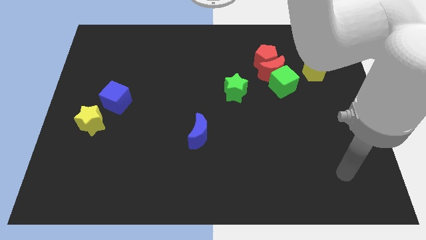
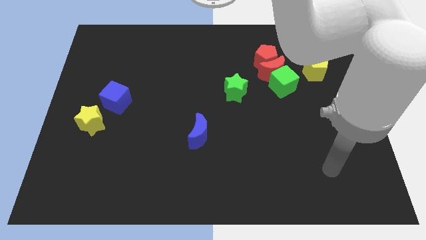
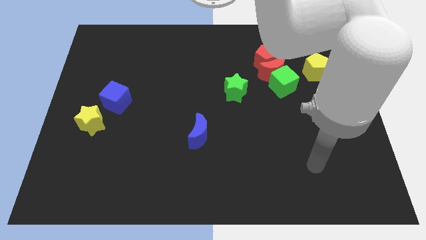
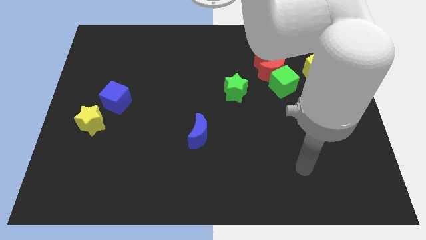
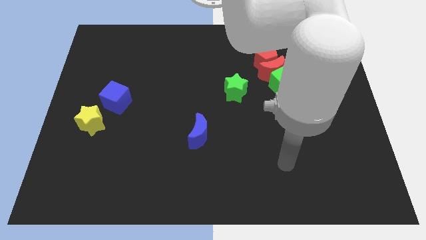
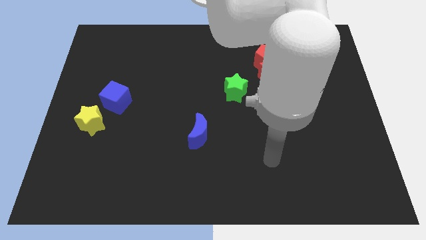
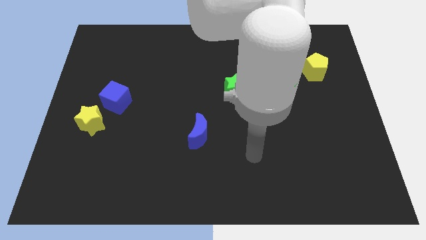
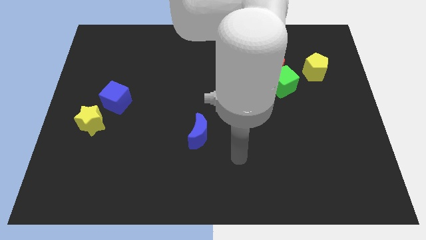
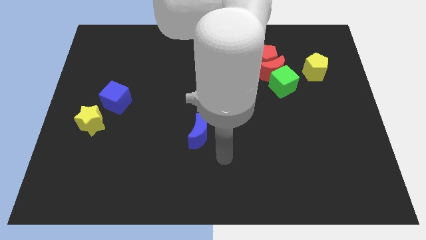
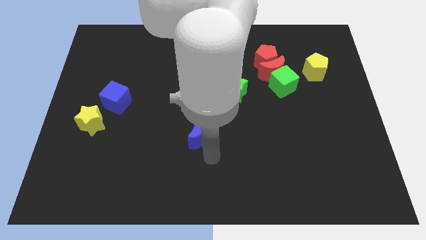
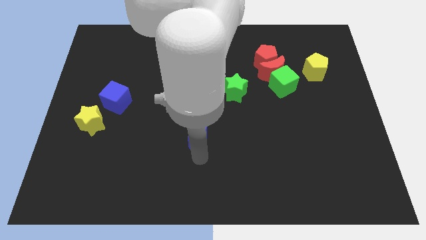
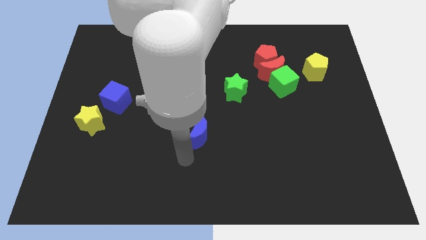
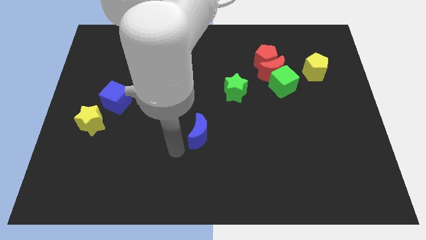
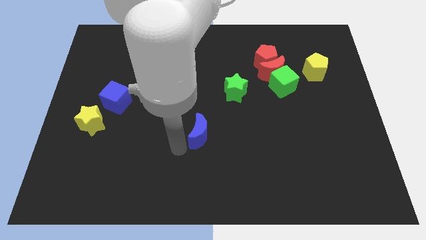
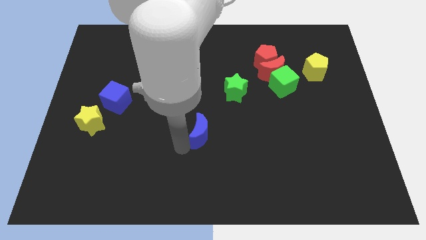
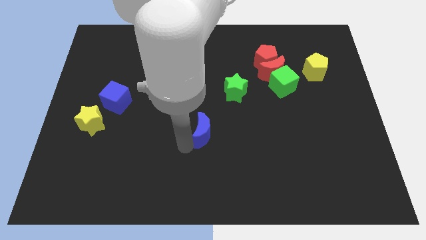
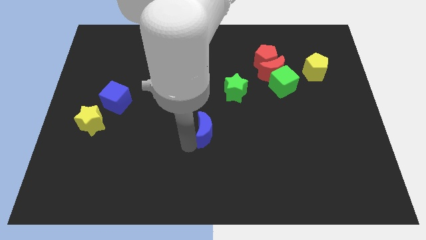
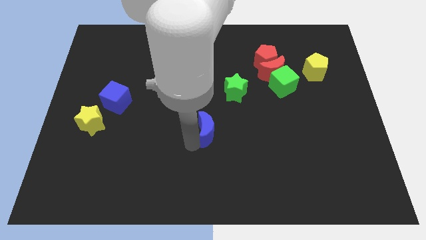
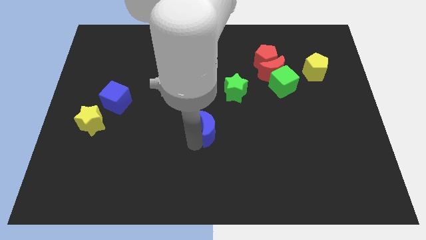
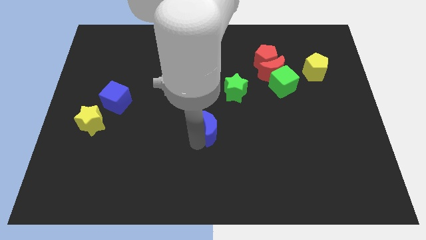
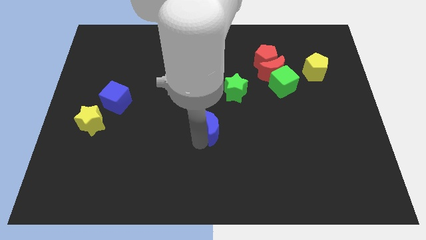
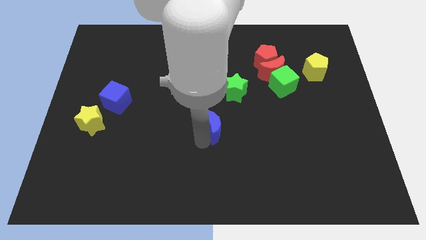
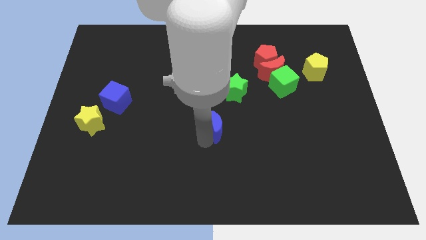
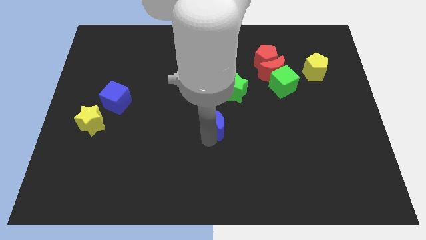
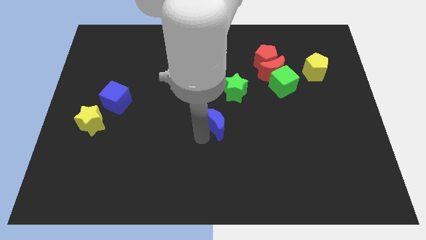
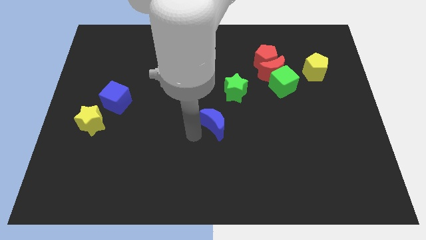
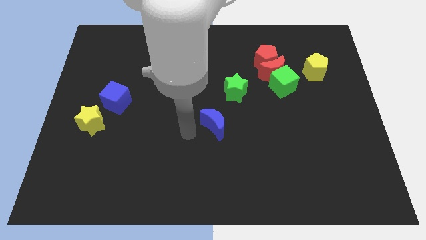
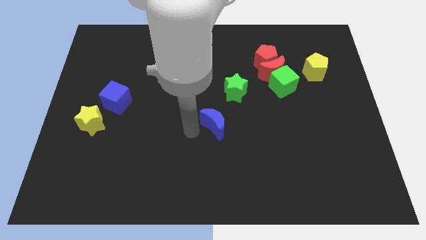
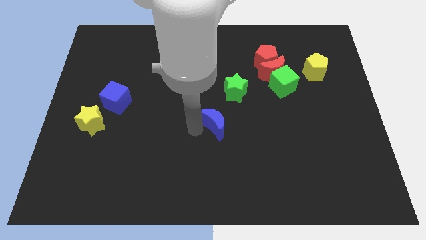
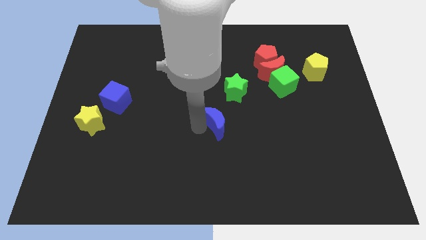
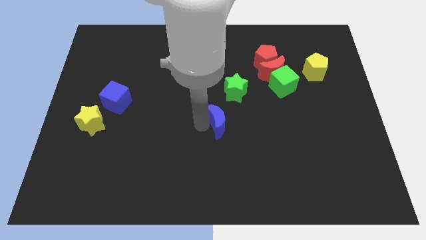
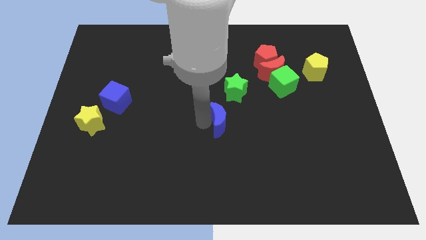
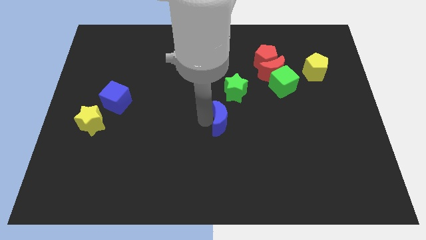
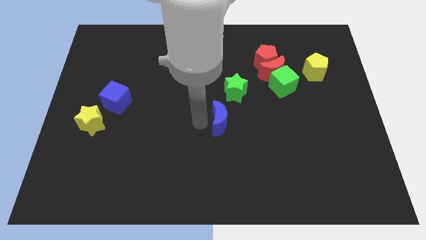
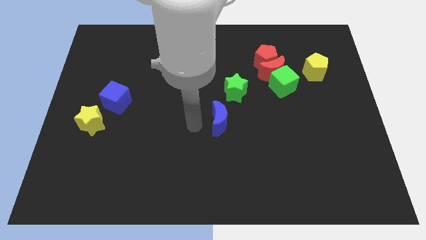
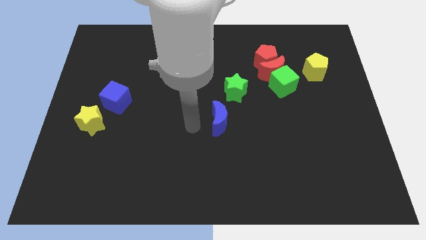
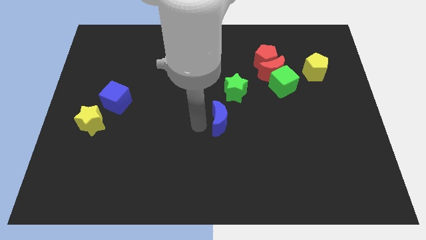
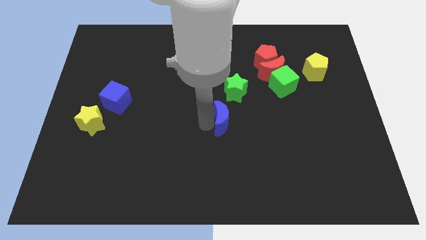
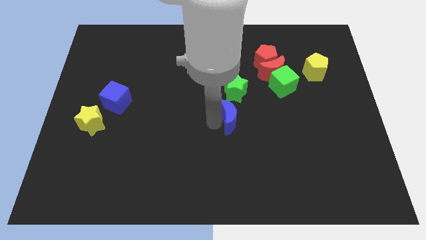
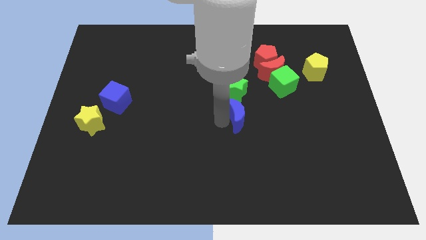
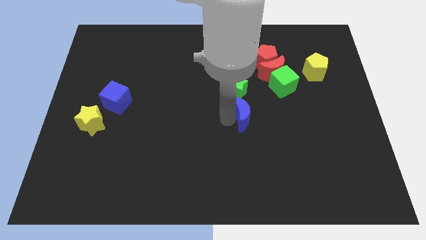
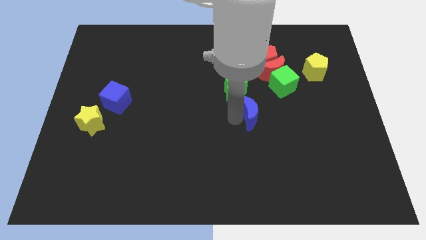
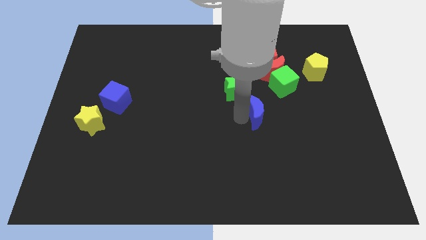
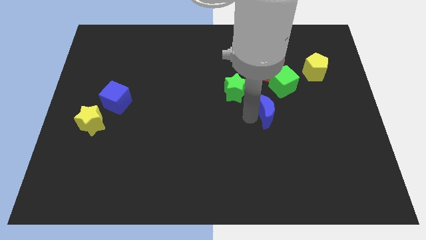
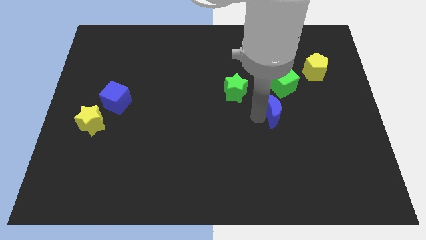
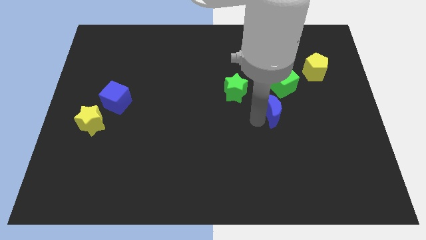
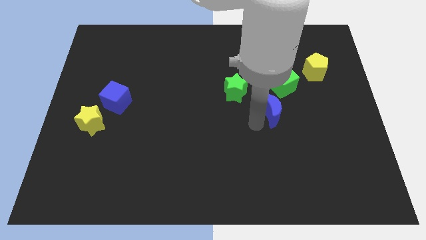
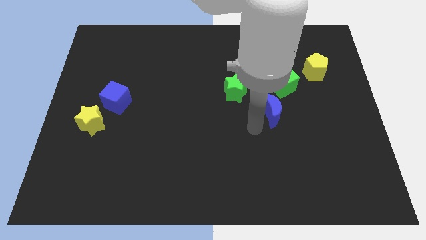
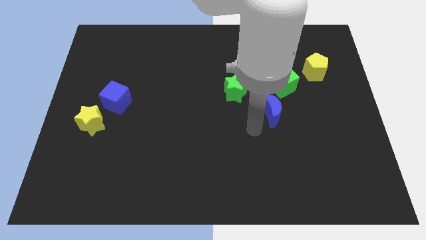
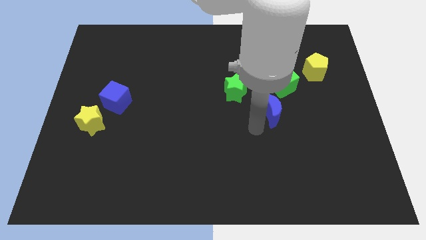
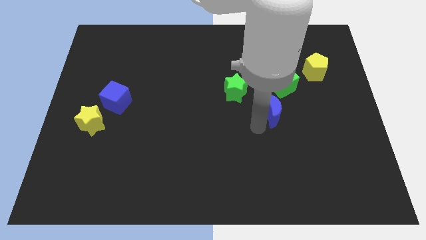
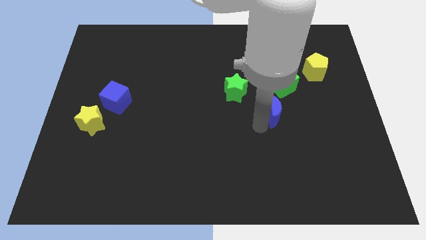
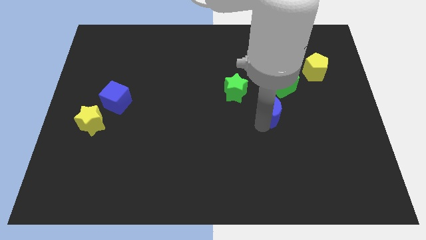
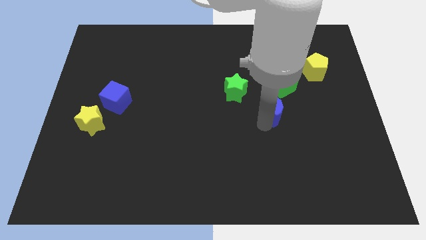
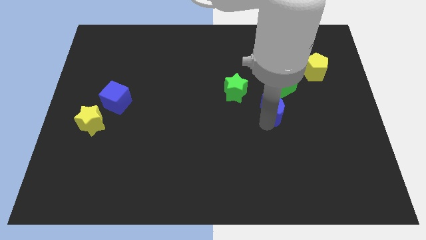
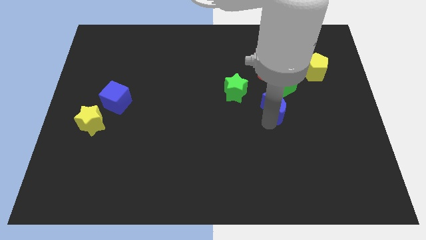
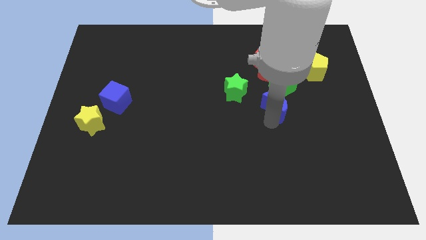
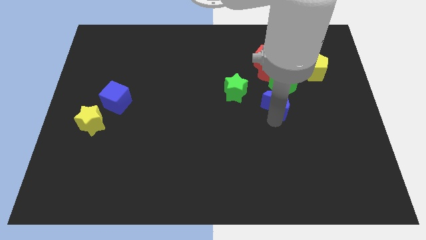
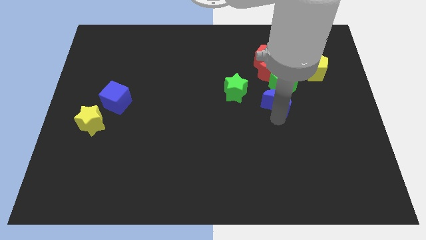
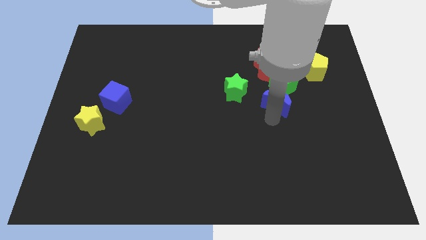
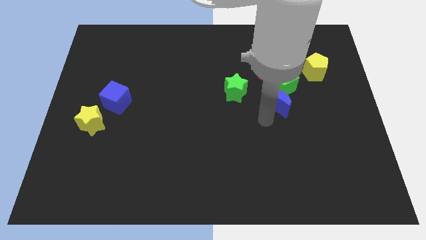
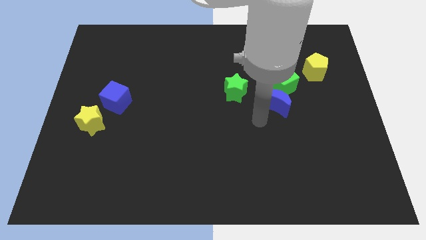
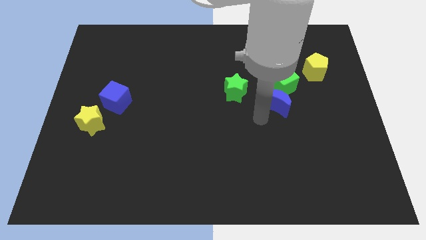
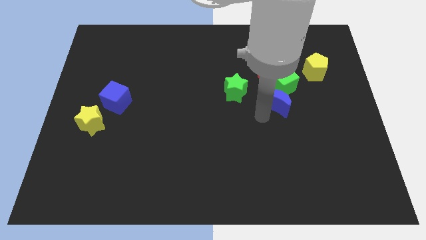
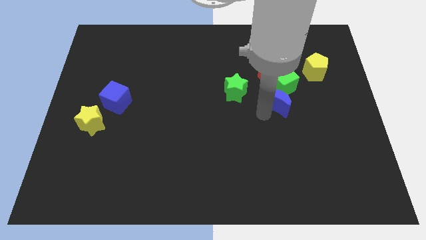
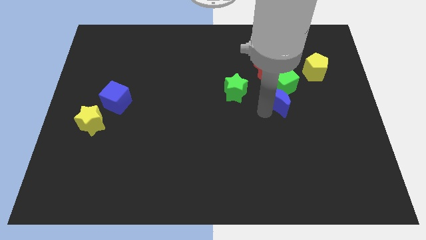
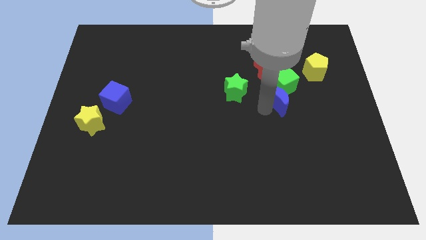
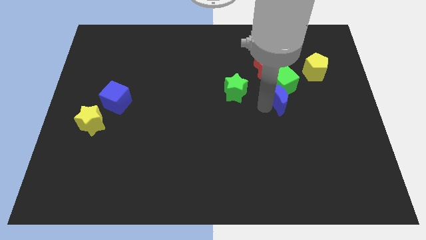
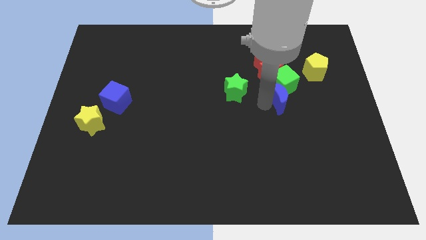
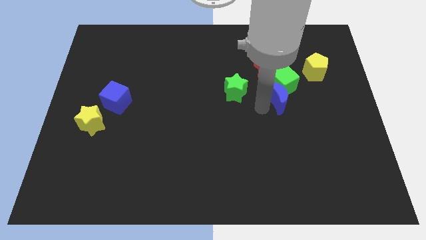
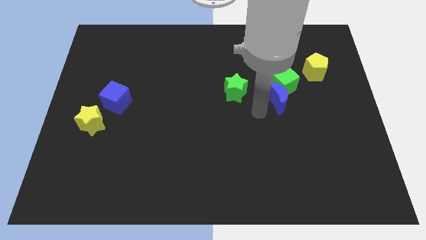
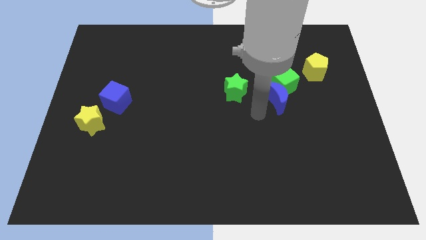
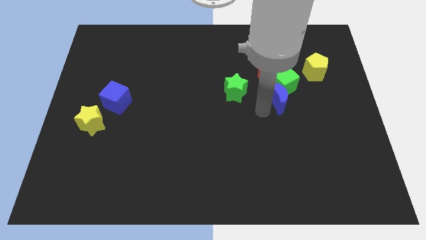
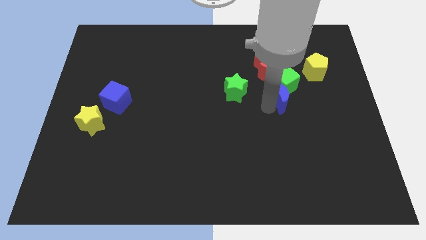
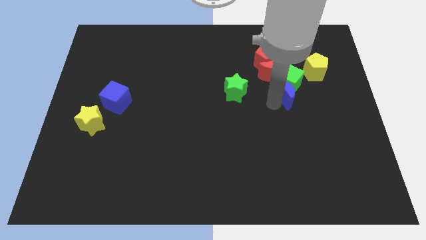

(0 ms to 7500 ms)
push the blue moon diagonally down and to the right of the red moon
